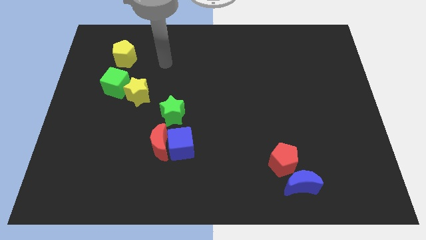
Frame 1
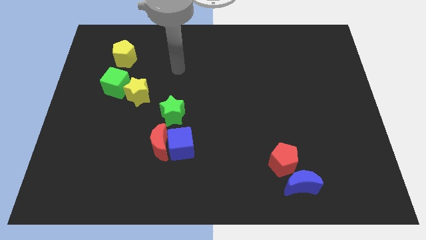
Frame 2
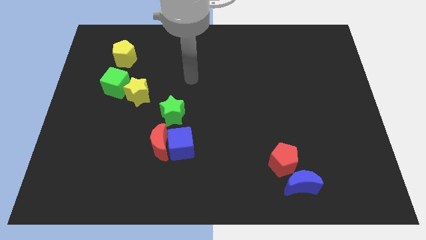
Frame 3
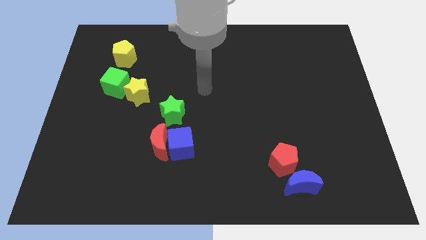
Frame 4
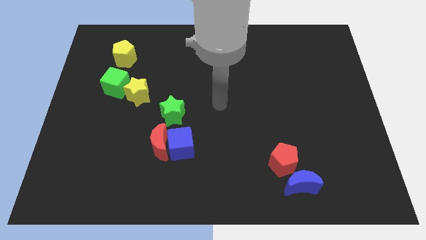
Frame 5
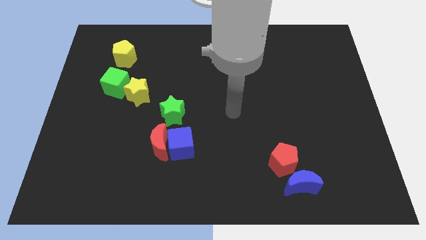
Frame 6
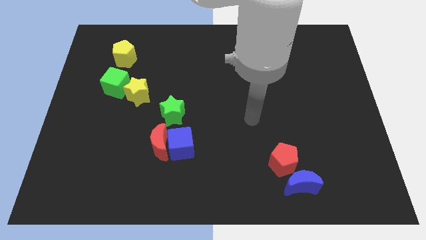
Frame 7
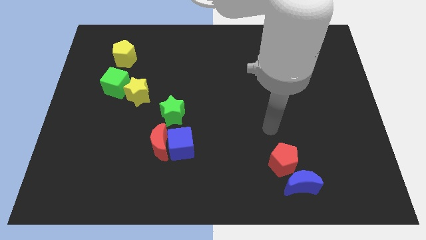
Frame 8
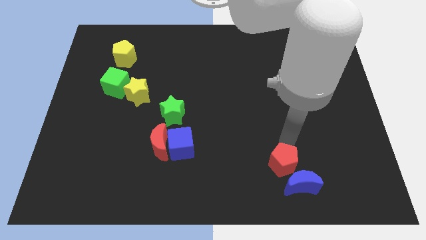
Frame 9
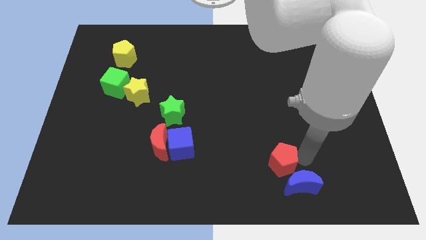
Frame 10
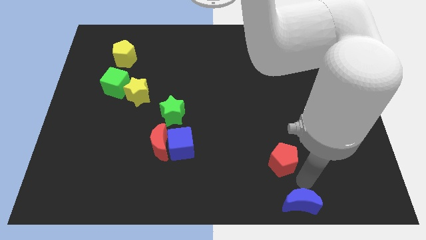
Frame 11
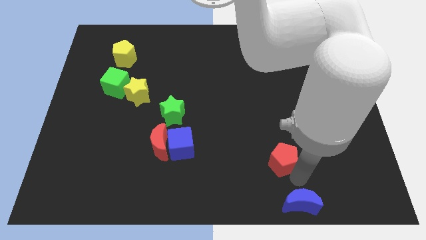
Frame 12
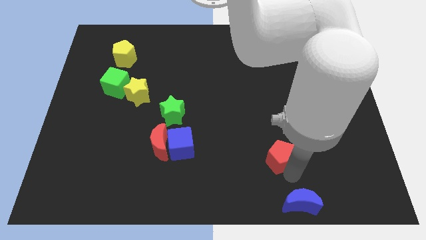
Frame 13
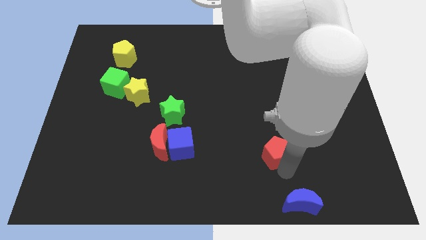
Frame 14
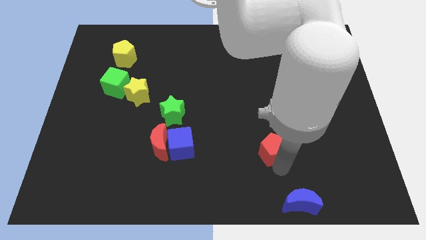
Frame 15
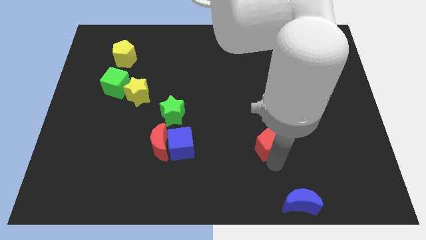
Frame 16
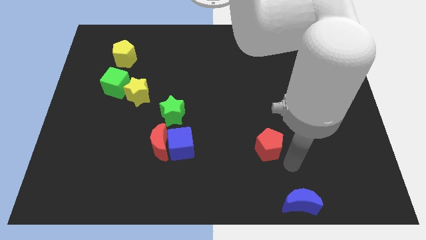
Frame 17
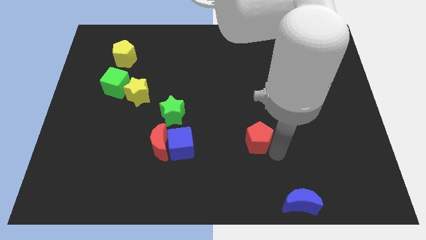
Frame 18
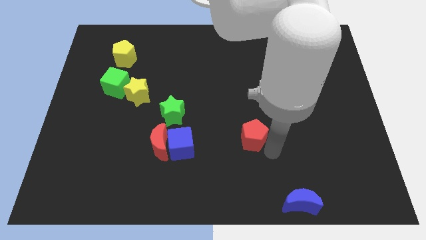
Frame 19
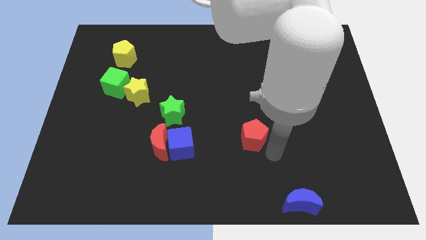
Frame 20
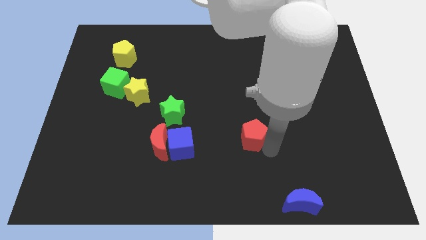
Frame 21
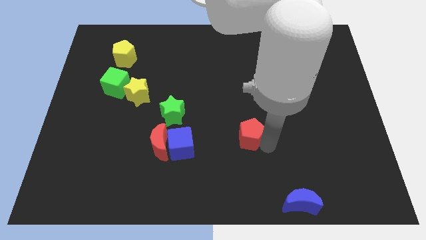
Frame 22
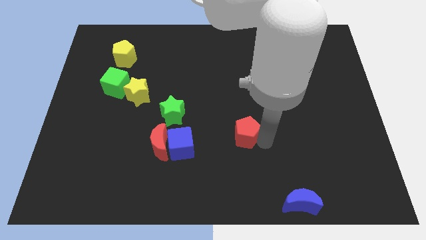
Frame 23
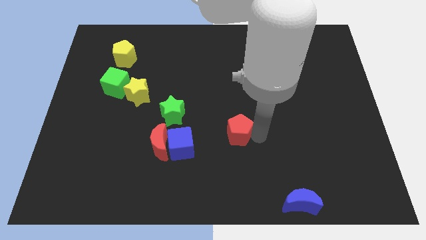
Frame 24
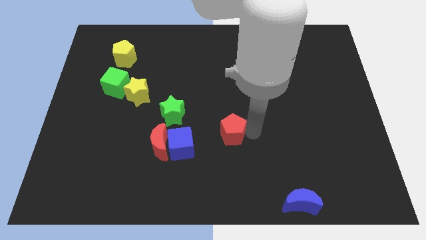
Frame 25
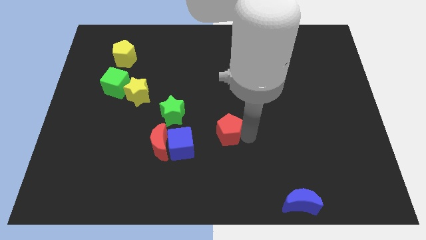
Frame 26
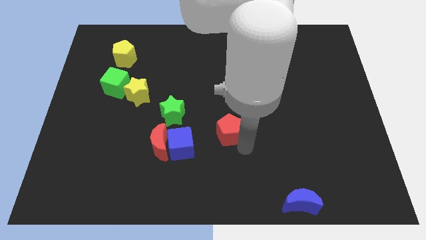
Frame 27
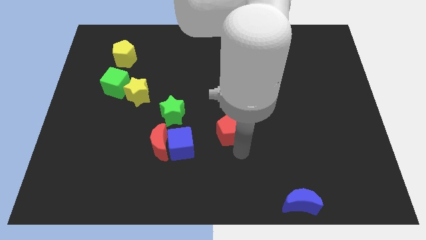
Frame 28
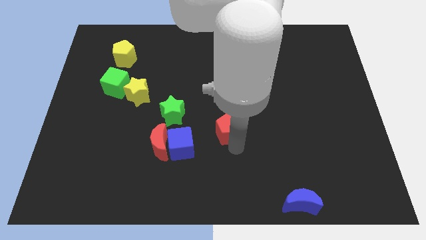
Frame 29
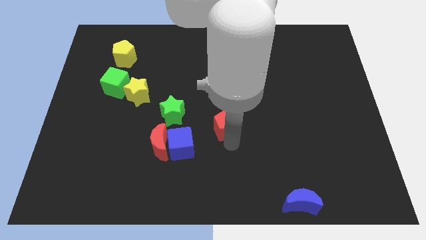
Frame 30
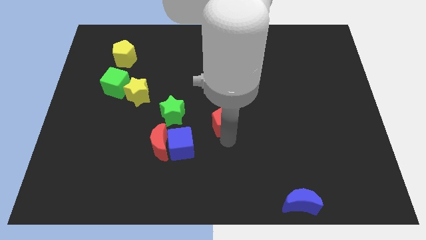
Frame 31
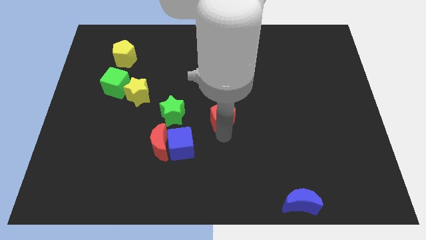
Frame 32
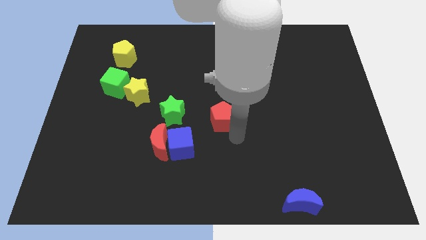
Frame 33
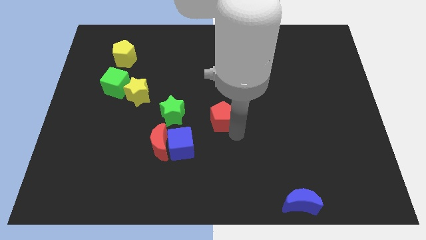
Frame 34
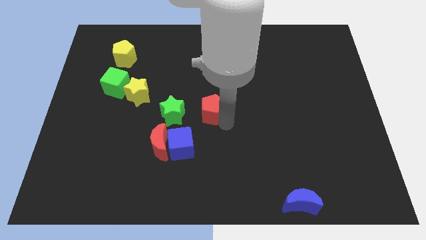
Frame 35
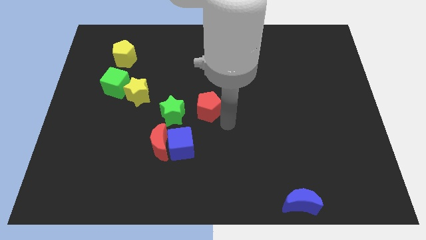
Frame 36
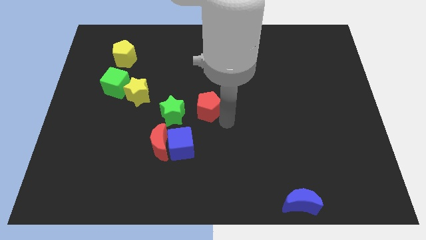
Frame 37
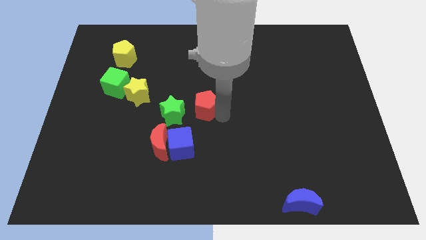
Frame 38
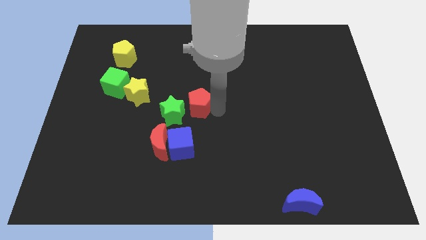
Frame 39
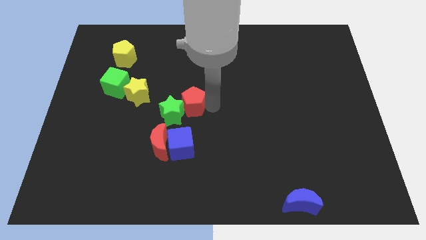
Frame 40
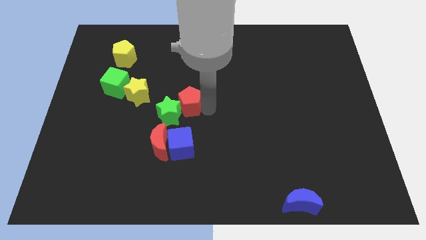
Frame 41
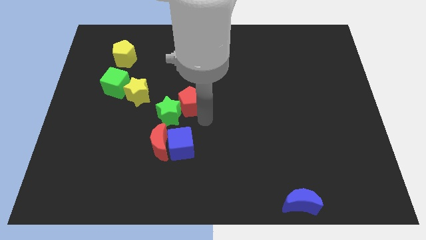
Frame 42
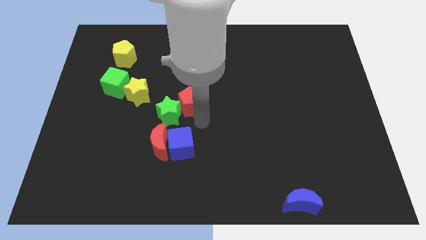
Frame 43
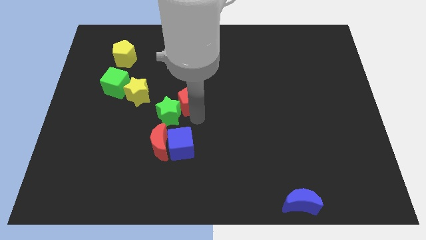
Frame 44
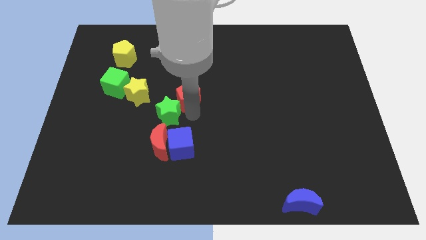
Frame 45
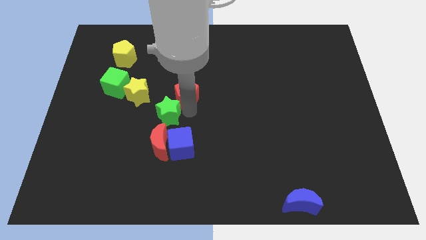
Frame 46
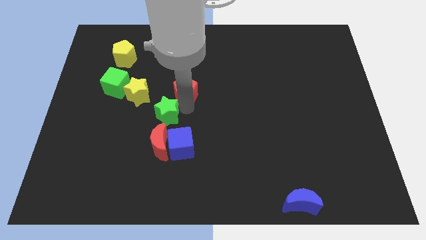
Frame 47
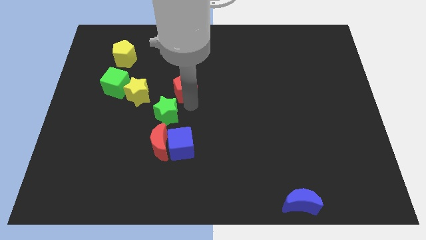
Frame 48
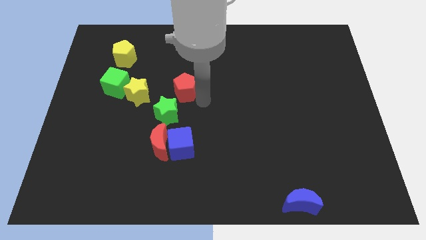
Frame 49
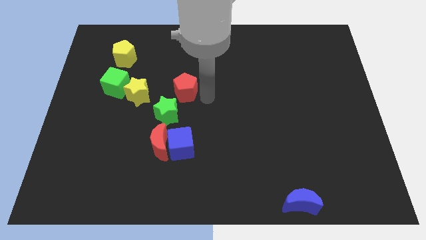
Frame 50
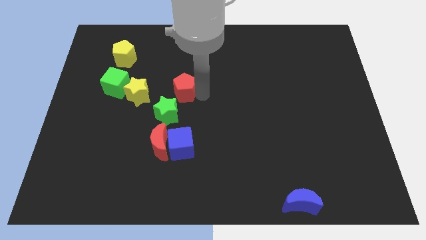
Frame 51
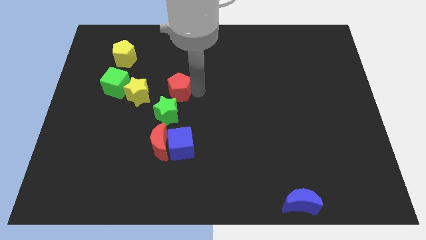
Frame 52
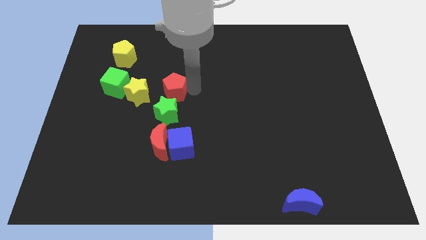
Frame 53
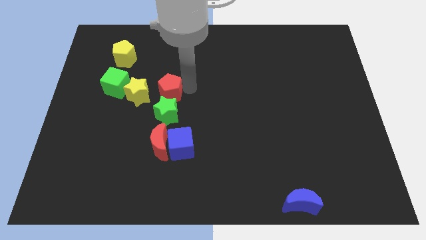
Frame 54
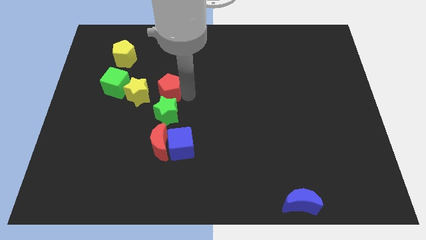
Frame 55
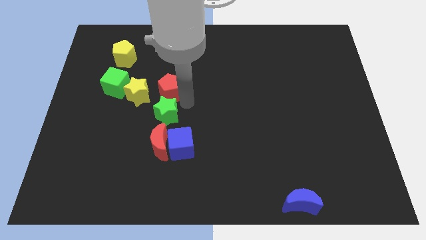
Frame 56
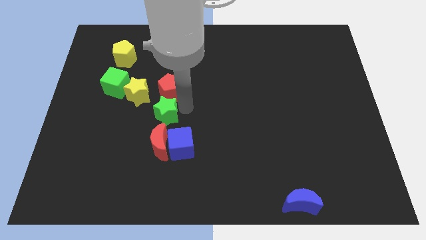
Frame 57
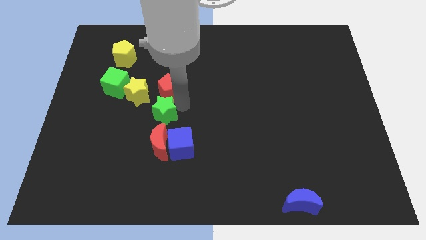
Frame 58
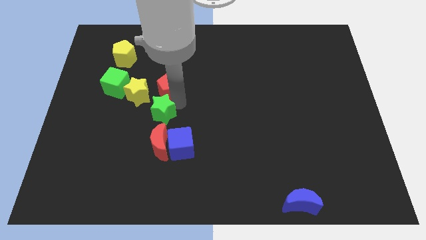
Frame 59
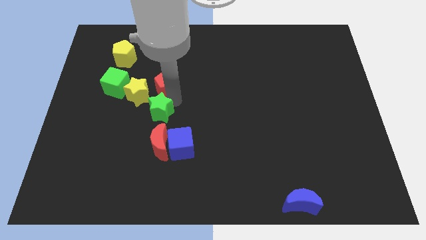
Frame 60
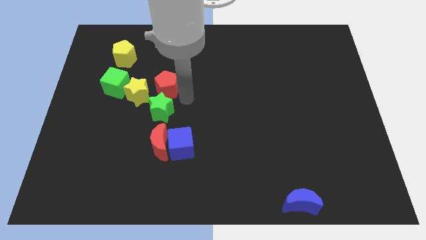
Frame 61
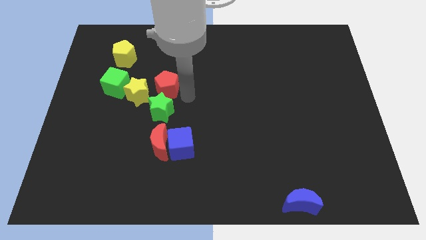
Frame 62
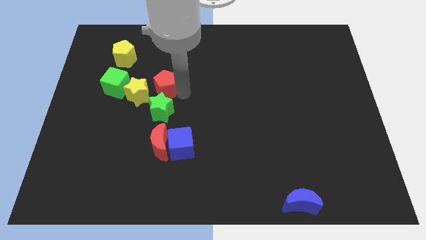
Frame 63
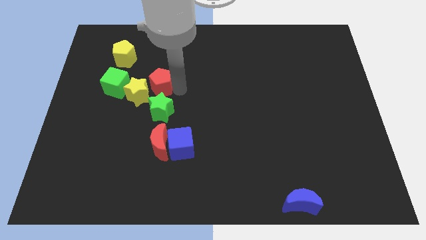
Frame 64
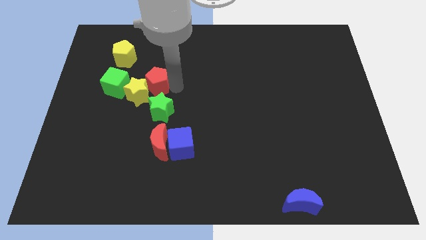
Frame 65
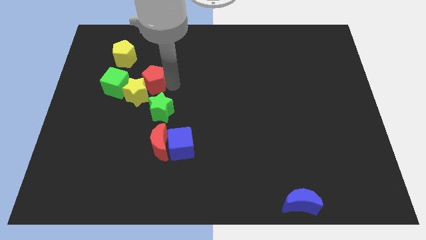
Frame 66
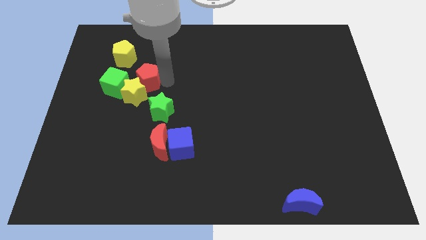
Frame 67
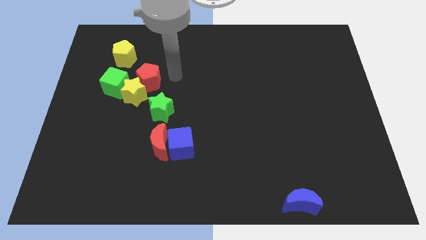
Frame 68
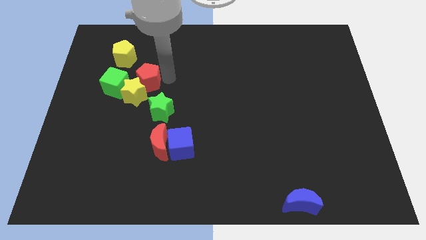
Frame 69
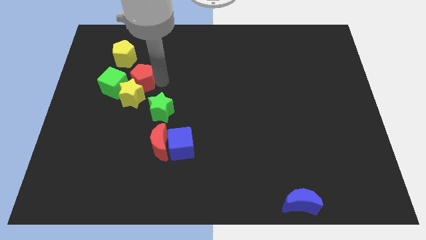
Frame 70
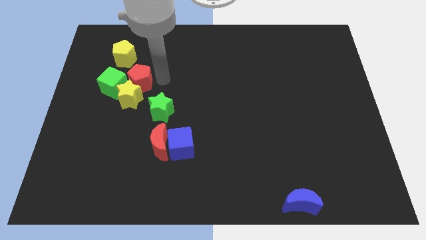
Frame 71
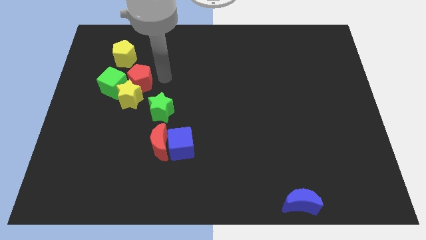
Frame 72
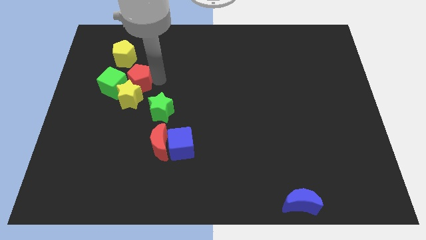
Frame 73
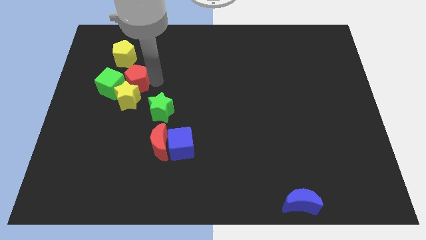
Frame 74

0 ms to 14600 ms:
slide the red pentagon close to the green cube

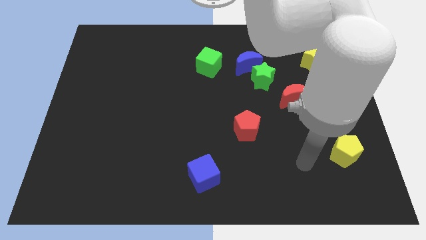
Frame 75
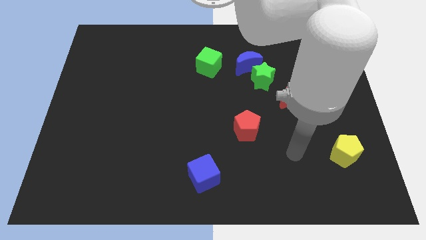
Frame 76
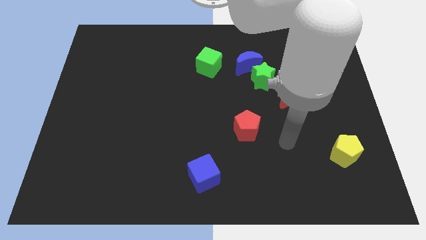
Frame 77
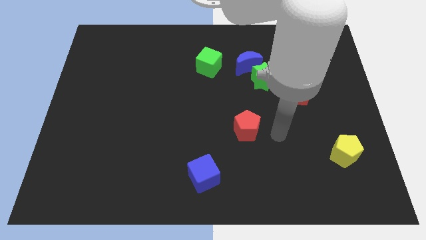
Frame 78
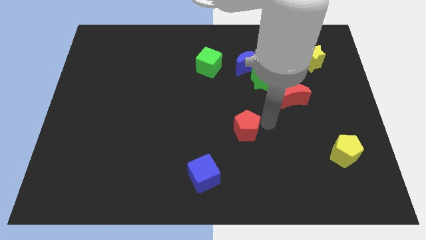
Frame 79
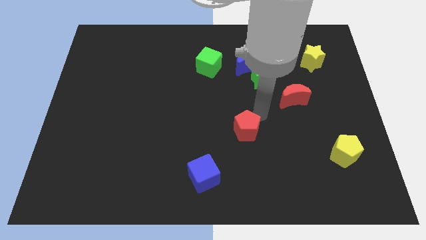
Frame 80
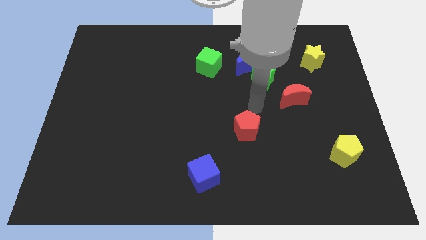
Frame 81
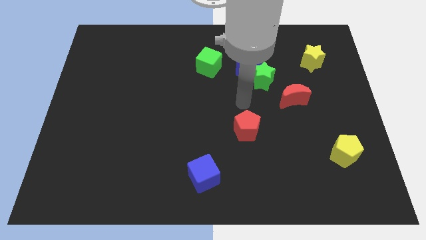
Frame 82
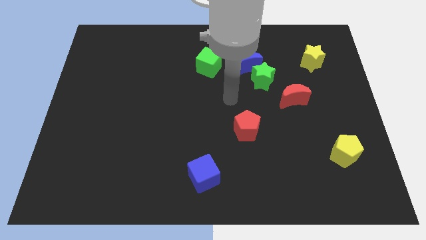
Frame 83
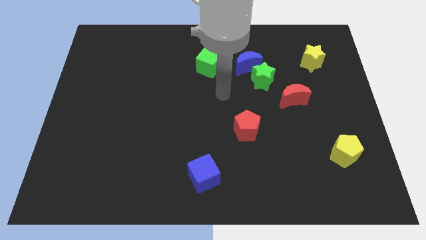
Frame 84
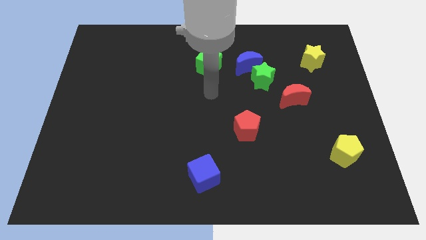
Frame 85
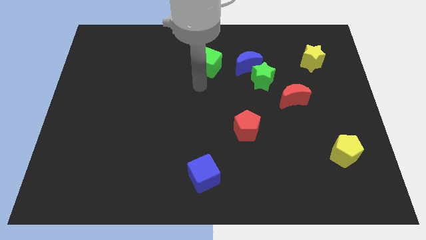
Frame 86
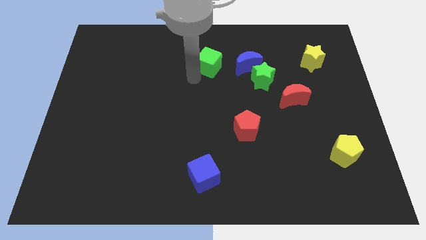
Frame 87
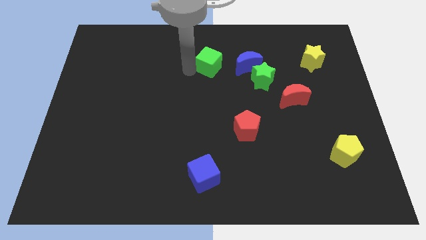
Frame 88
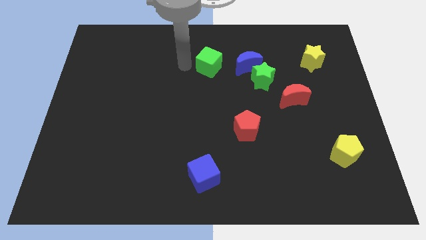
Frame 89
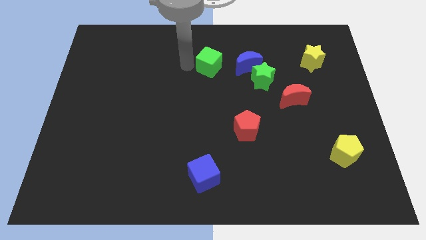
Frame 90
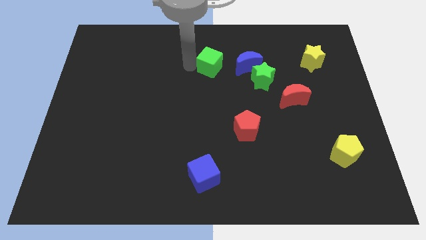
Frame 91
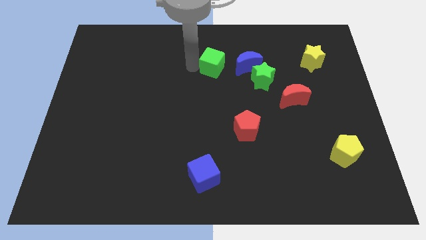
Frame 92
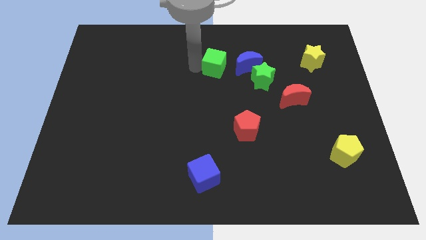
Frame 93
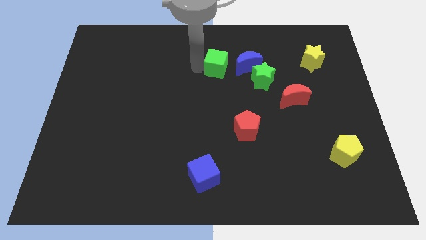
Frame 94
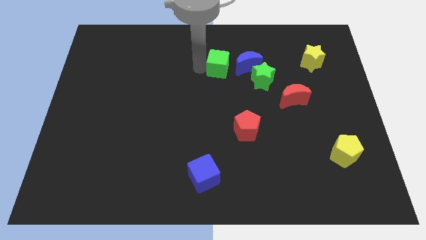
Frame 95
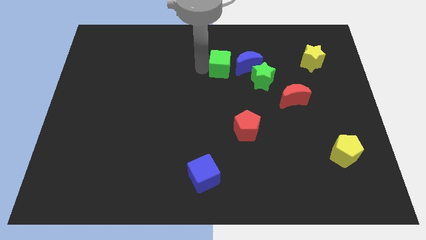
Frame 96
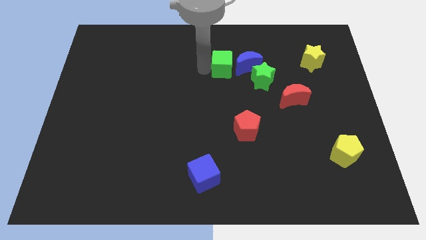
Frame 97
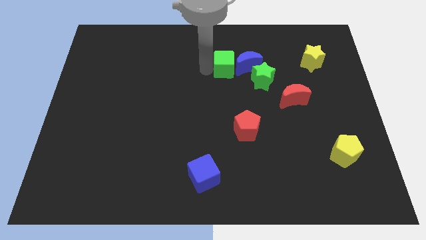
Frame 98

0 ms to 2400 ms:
push the green cube towards the blue moon
